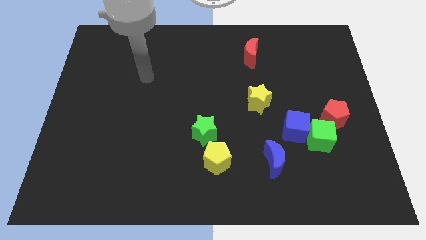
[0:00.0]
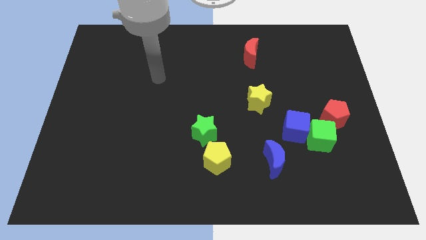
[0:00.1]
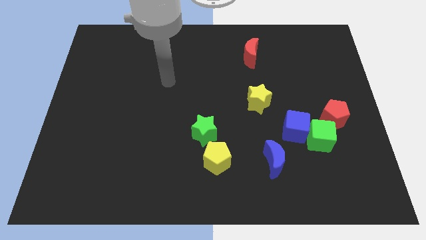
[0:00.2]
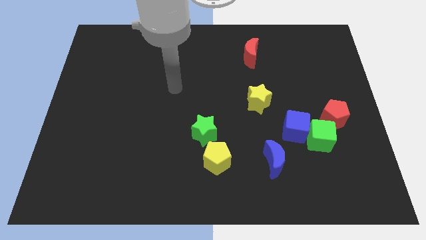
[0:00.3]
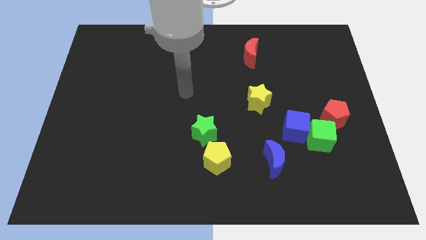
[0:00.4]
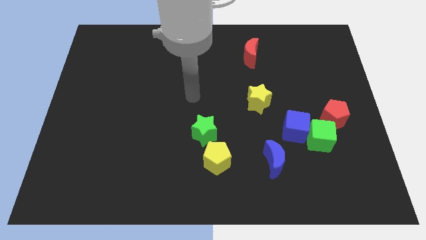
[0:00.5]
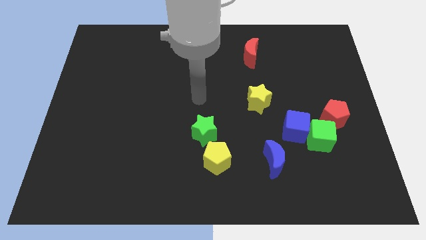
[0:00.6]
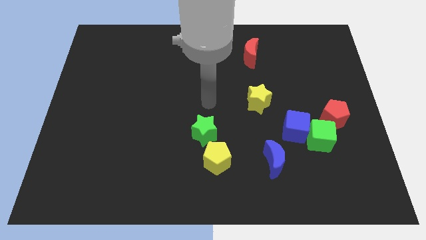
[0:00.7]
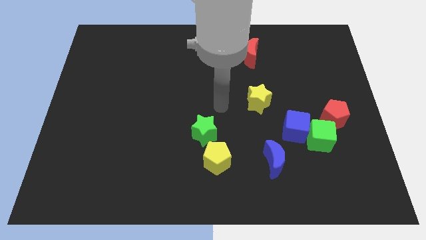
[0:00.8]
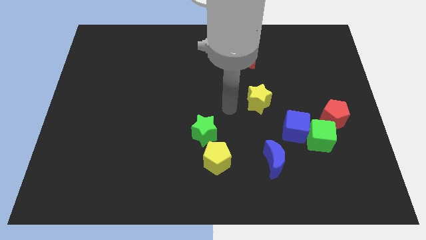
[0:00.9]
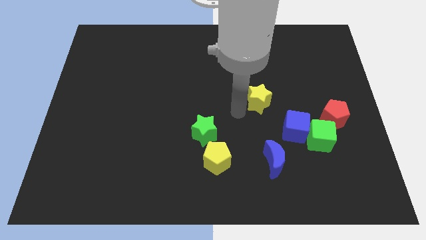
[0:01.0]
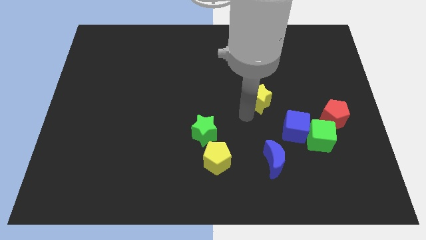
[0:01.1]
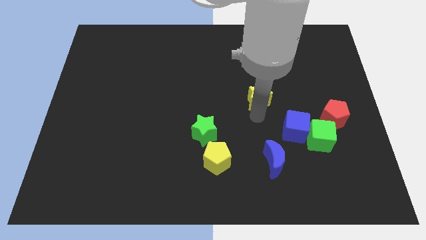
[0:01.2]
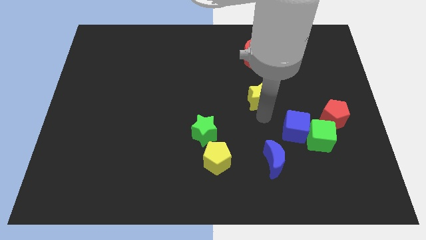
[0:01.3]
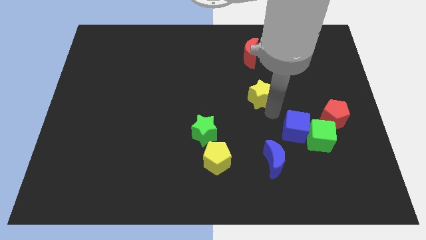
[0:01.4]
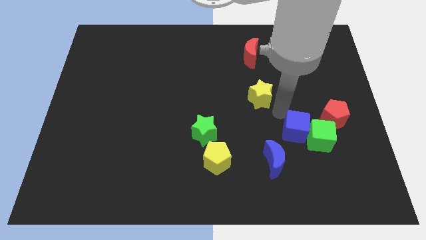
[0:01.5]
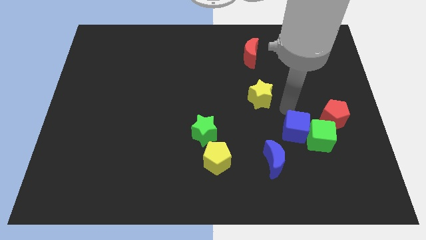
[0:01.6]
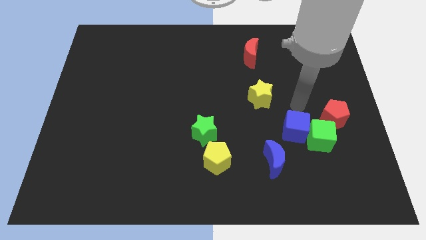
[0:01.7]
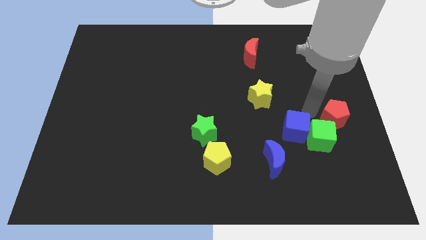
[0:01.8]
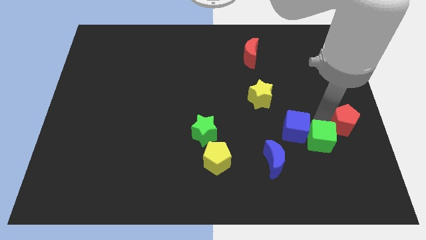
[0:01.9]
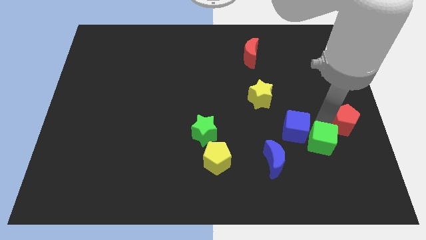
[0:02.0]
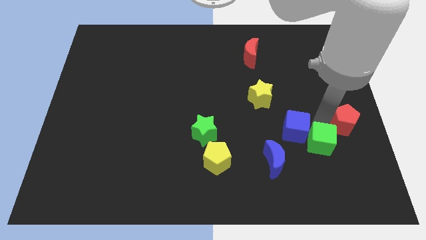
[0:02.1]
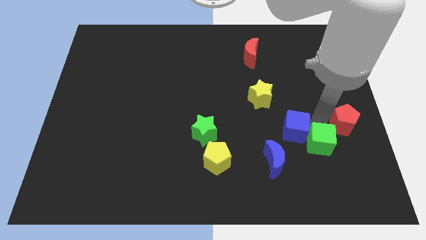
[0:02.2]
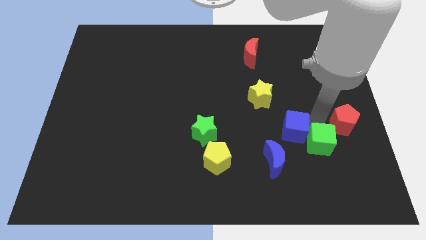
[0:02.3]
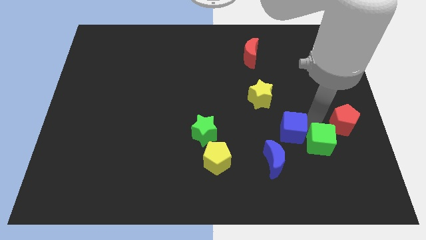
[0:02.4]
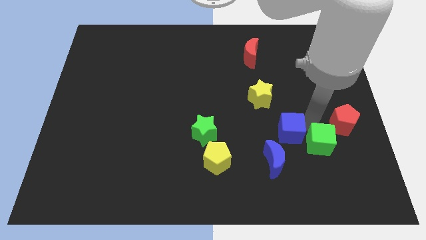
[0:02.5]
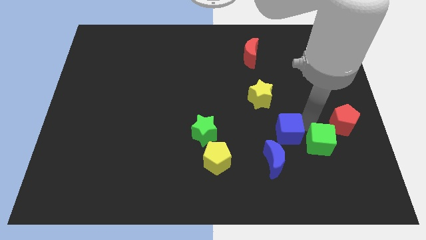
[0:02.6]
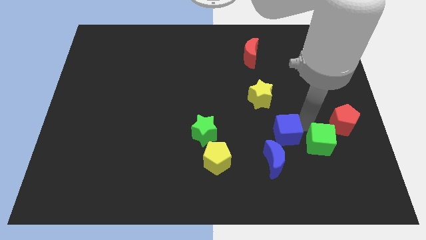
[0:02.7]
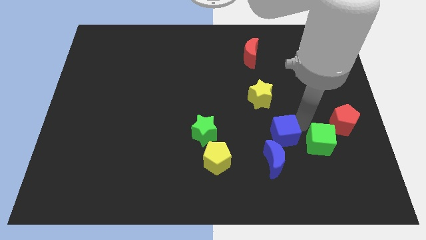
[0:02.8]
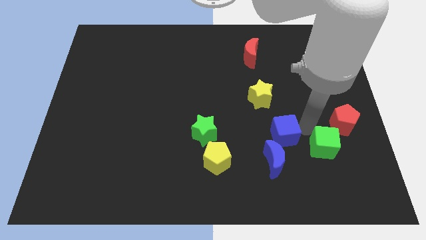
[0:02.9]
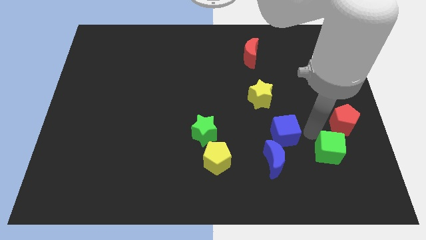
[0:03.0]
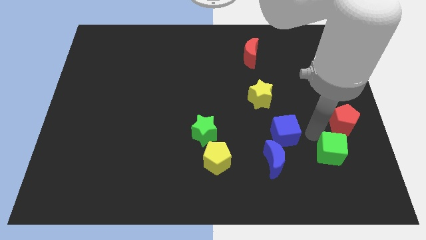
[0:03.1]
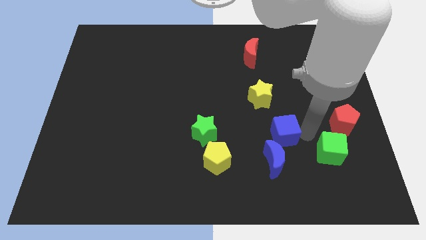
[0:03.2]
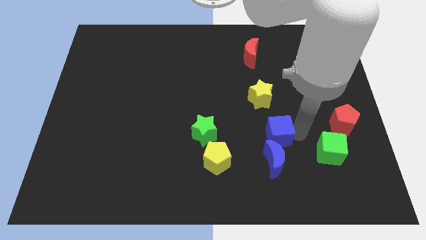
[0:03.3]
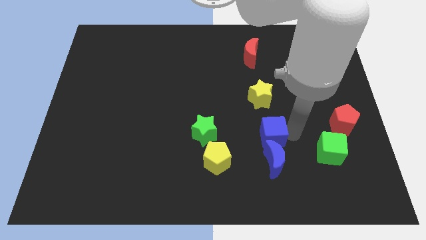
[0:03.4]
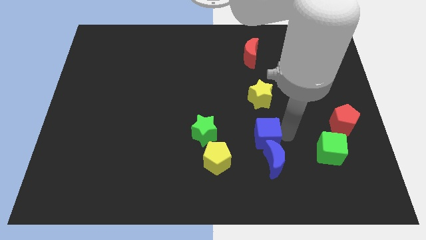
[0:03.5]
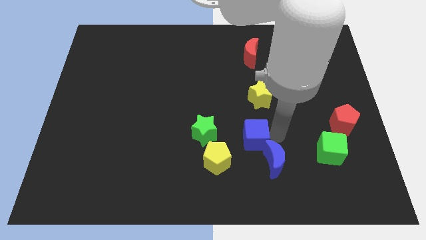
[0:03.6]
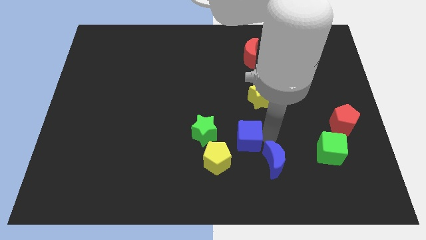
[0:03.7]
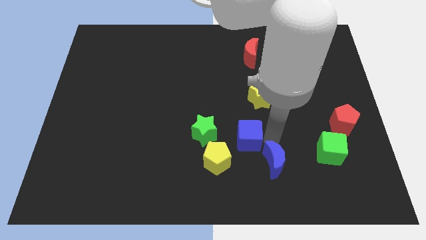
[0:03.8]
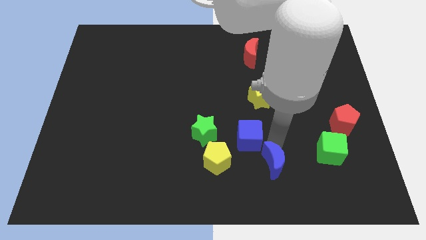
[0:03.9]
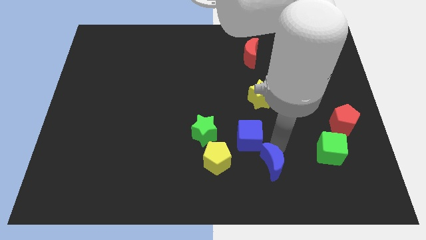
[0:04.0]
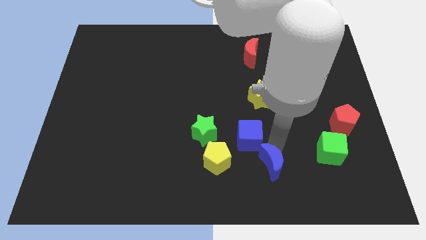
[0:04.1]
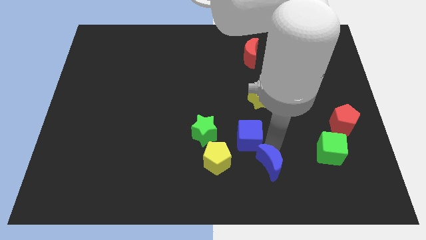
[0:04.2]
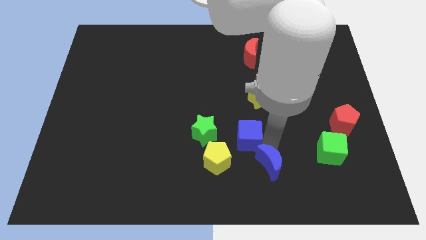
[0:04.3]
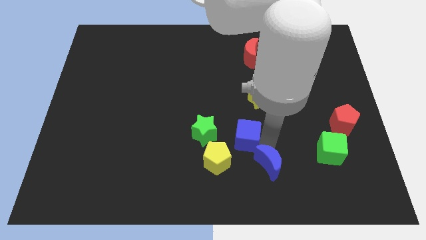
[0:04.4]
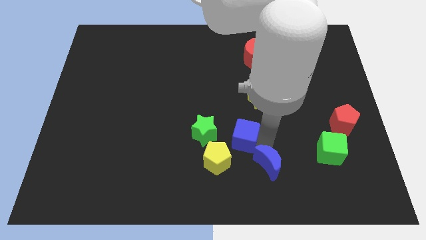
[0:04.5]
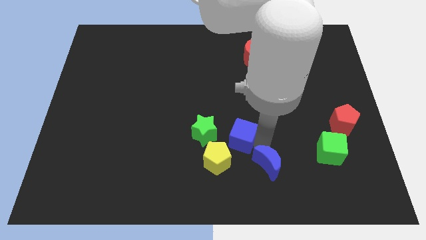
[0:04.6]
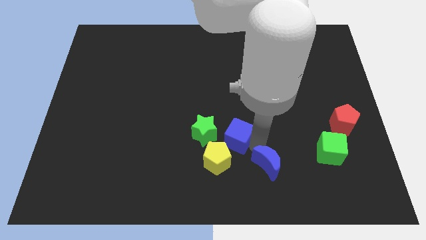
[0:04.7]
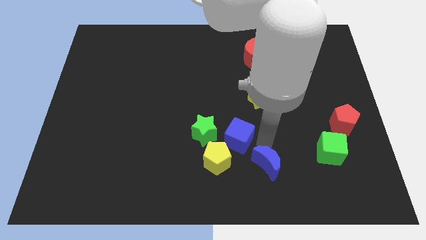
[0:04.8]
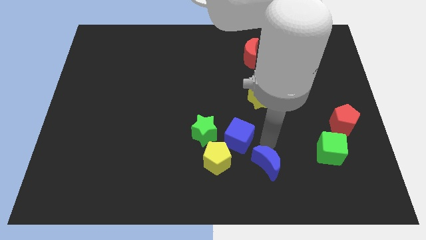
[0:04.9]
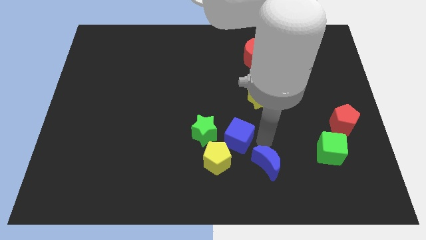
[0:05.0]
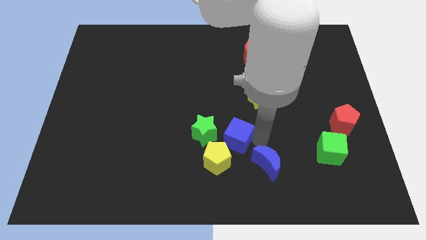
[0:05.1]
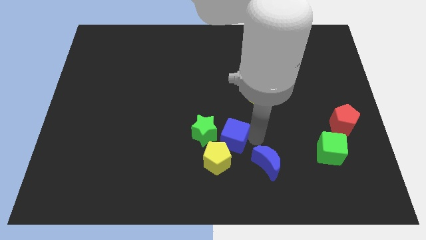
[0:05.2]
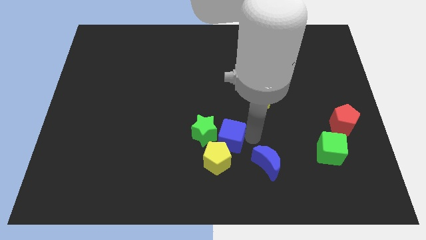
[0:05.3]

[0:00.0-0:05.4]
slide the blue cube to the green star

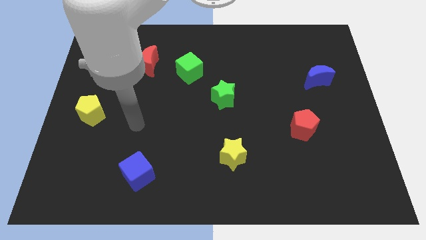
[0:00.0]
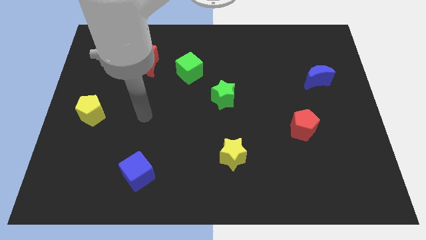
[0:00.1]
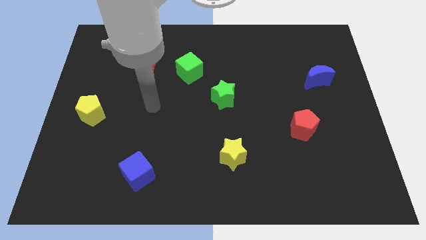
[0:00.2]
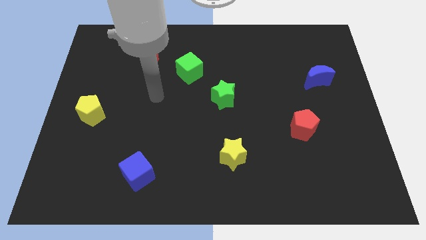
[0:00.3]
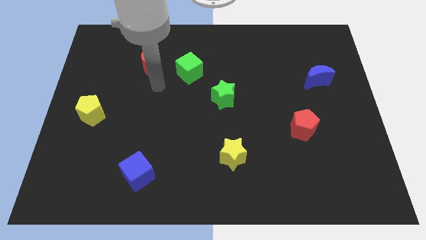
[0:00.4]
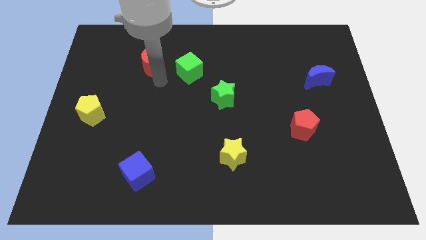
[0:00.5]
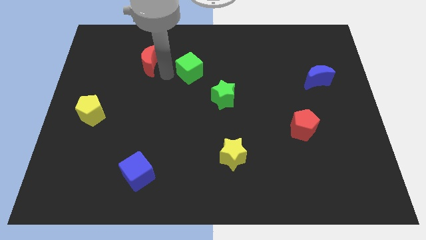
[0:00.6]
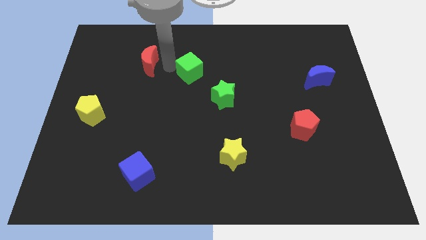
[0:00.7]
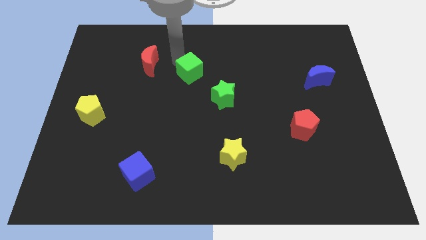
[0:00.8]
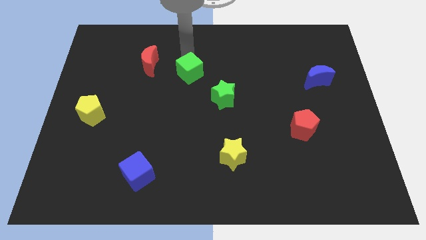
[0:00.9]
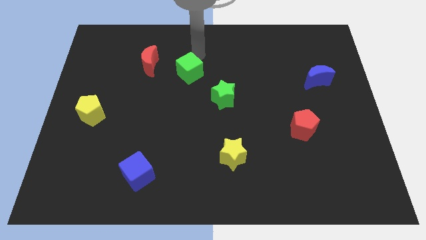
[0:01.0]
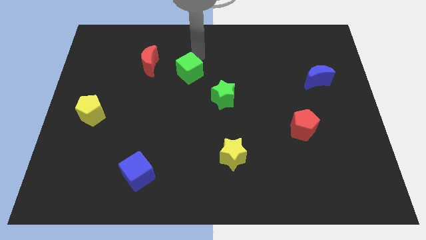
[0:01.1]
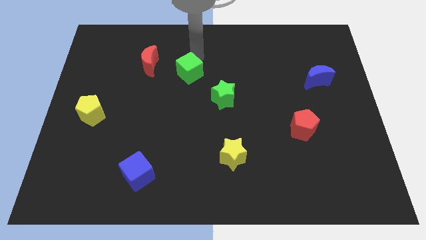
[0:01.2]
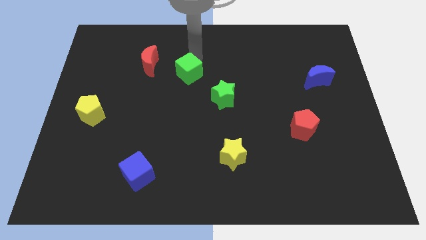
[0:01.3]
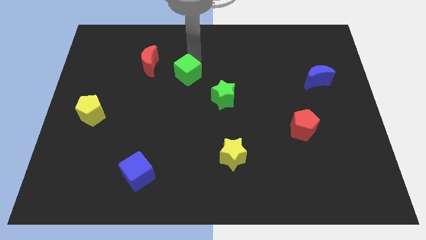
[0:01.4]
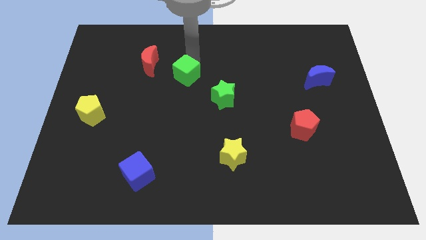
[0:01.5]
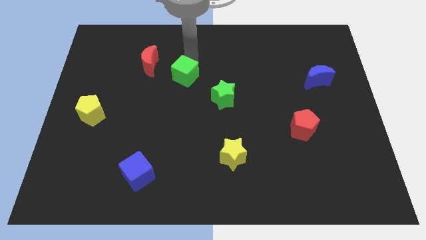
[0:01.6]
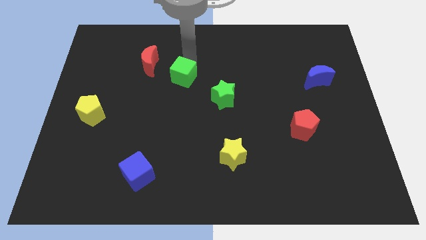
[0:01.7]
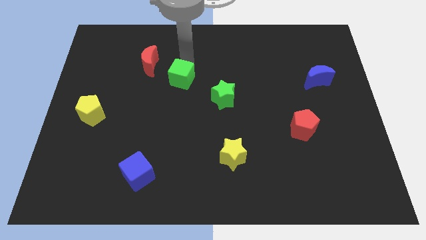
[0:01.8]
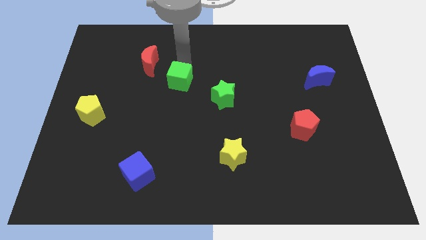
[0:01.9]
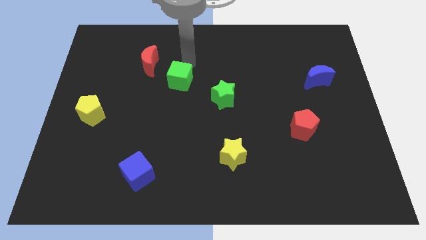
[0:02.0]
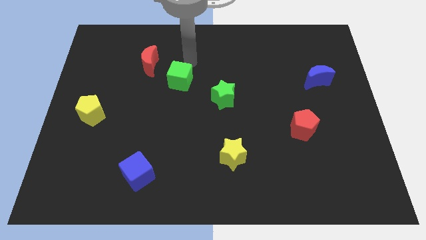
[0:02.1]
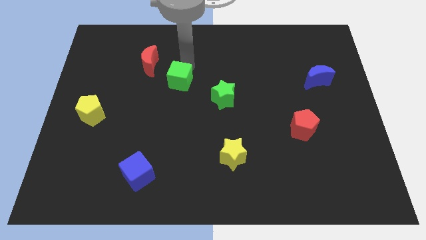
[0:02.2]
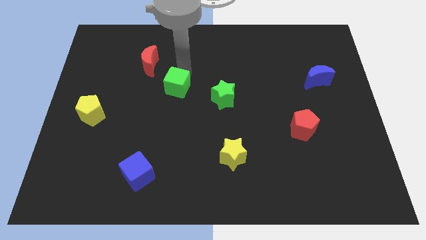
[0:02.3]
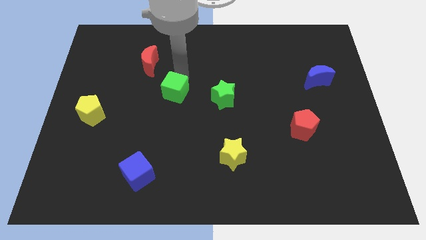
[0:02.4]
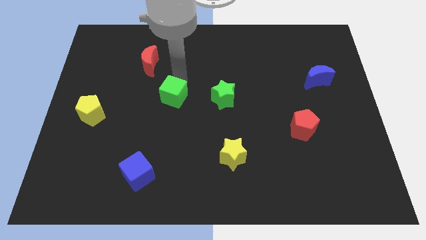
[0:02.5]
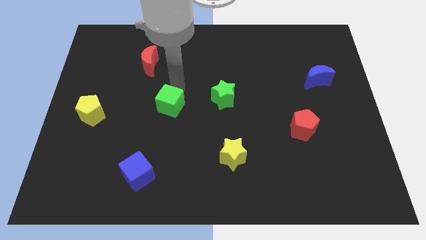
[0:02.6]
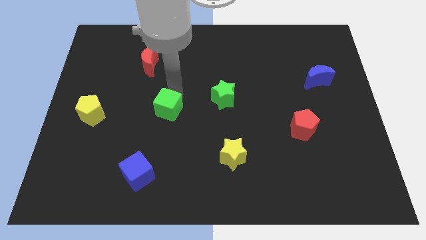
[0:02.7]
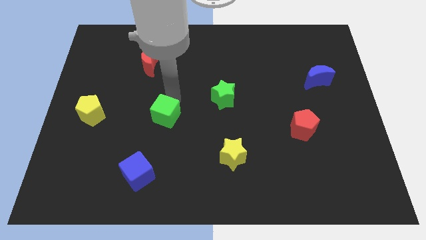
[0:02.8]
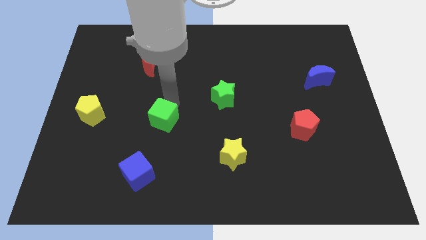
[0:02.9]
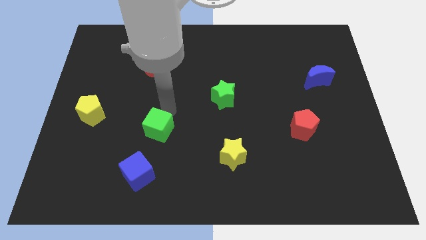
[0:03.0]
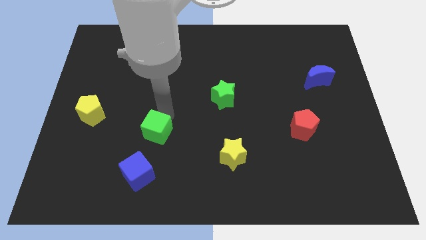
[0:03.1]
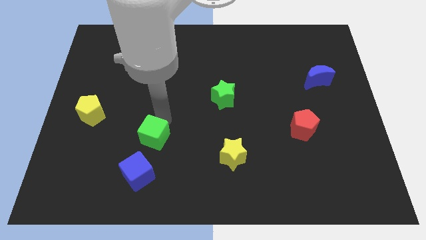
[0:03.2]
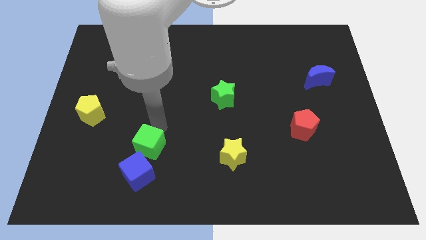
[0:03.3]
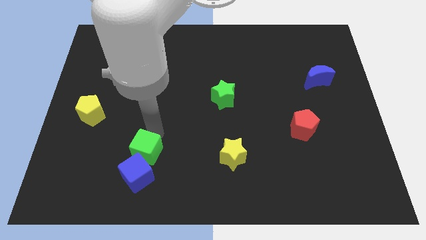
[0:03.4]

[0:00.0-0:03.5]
slide the green cube next to the blue cube
